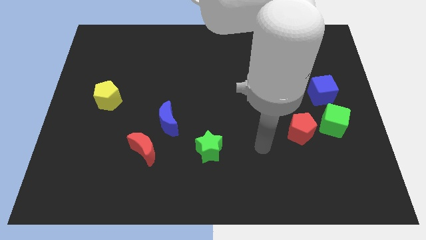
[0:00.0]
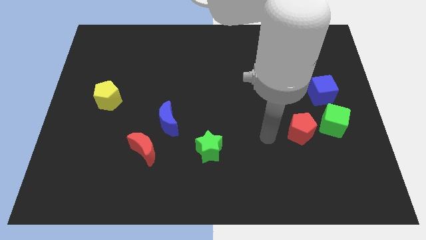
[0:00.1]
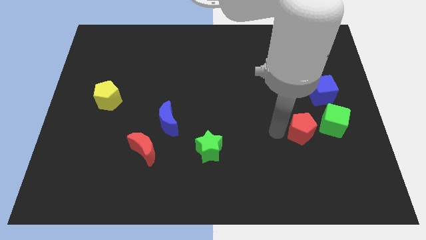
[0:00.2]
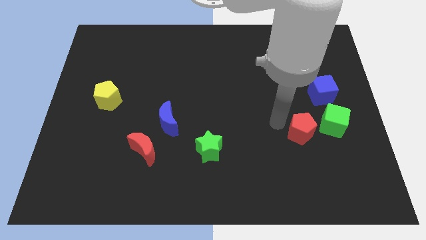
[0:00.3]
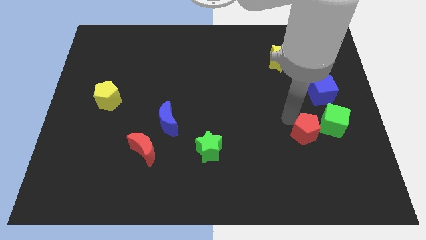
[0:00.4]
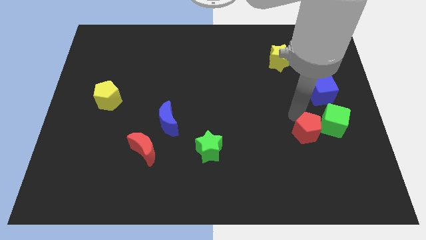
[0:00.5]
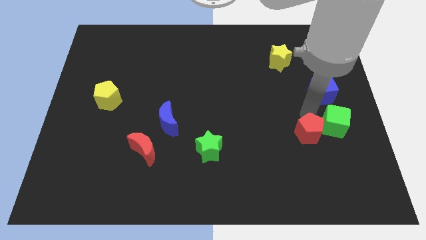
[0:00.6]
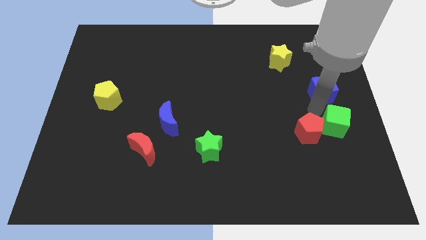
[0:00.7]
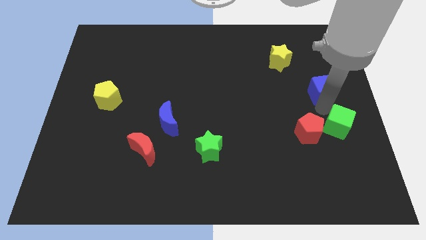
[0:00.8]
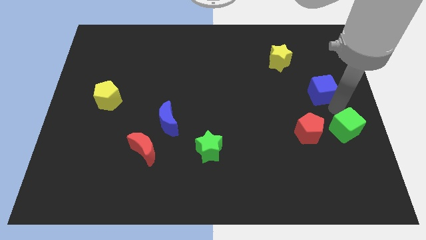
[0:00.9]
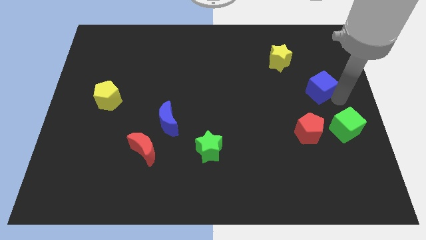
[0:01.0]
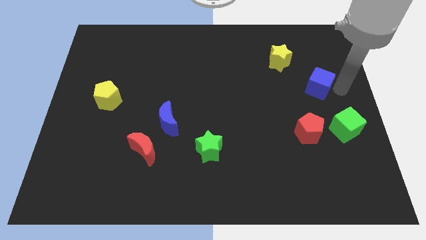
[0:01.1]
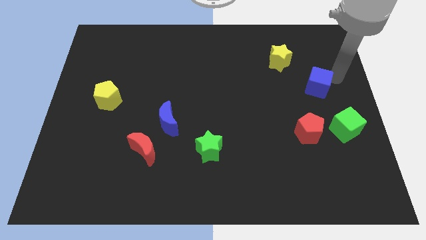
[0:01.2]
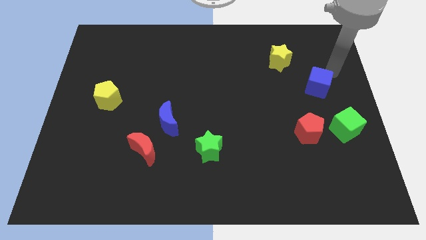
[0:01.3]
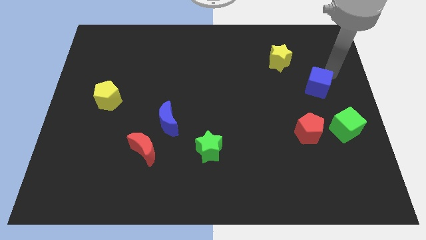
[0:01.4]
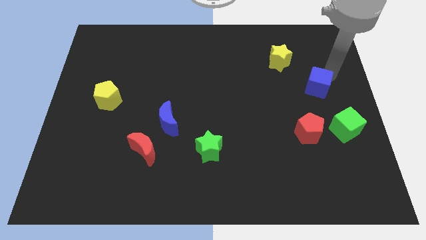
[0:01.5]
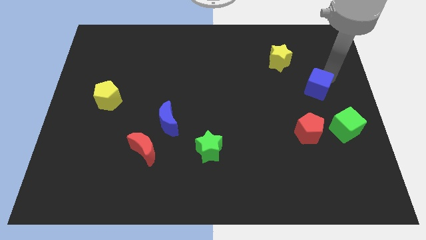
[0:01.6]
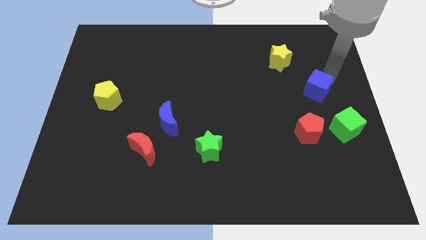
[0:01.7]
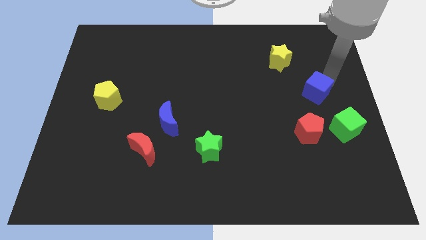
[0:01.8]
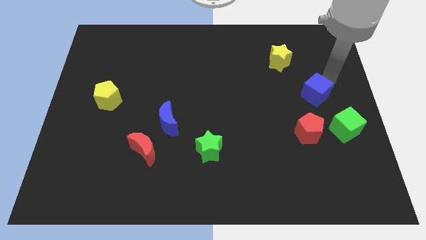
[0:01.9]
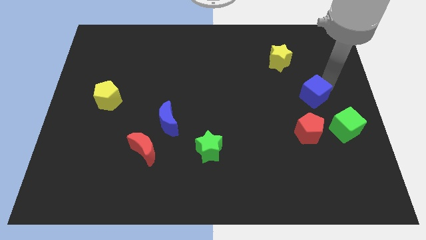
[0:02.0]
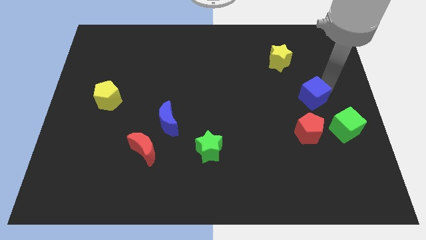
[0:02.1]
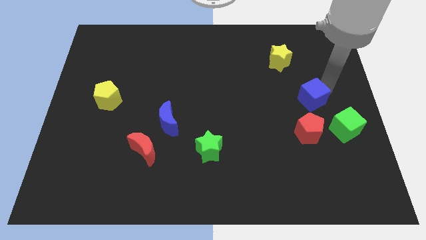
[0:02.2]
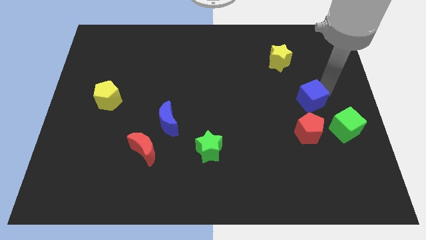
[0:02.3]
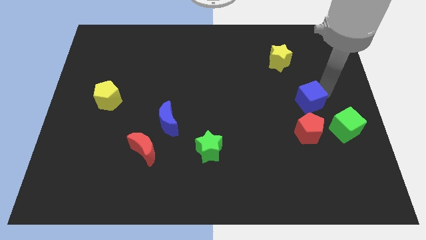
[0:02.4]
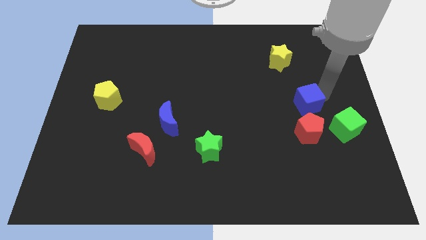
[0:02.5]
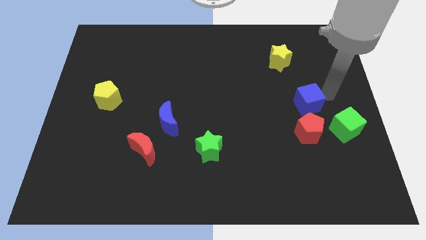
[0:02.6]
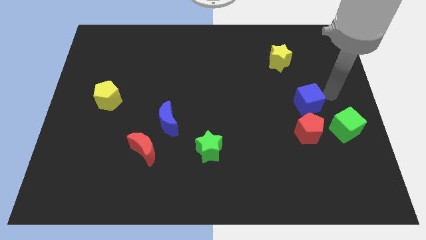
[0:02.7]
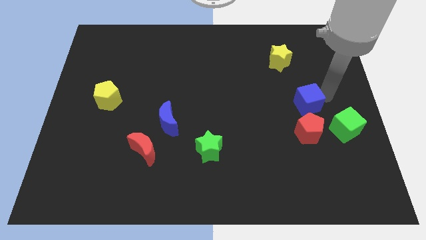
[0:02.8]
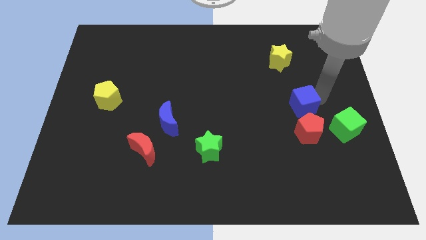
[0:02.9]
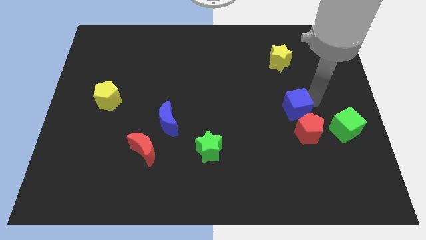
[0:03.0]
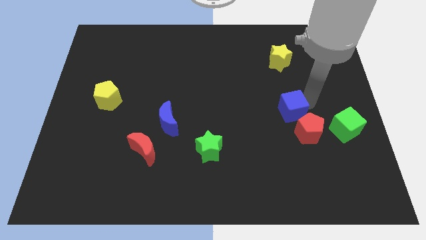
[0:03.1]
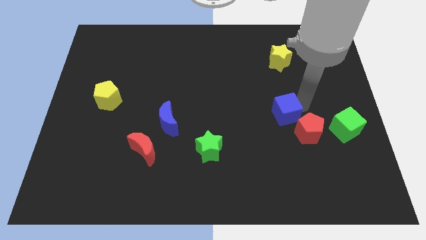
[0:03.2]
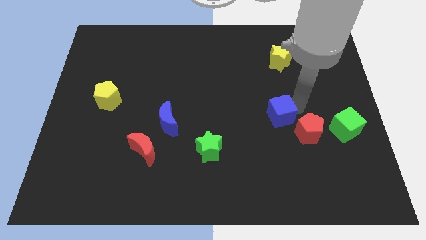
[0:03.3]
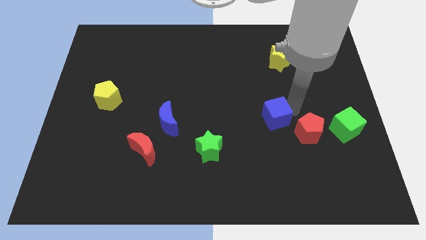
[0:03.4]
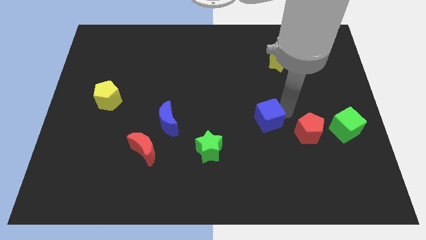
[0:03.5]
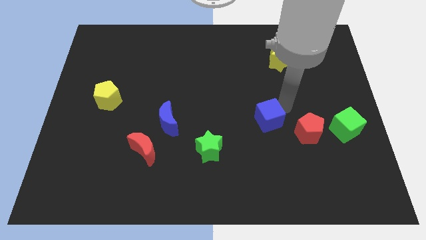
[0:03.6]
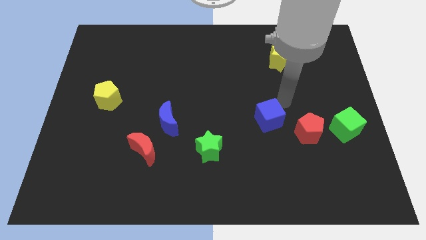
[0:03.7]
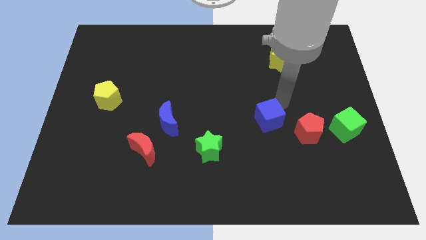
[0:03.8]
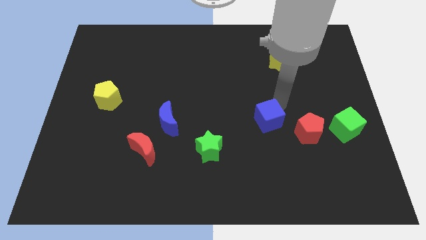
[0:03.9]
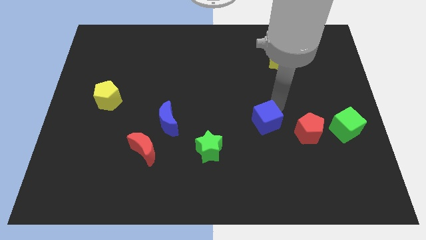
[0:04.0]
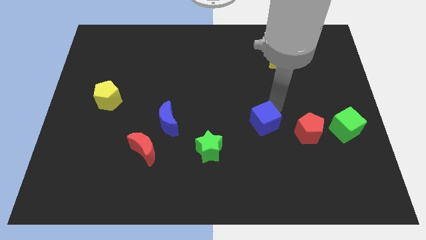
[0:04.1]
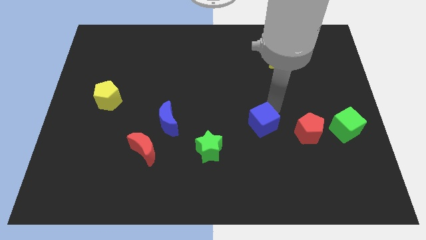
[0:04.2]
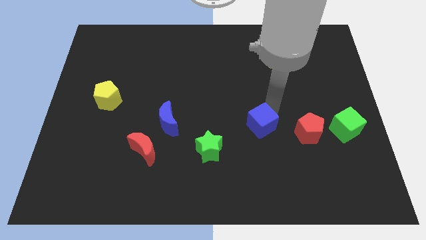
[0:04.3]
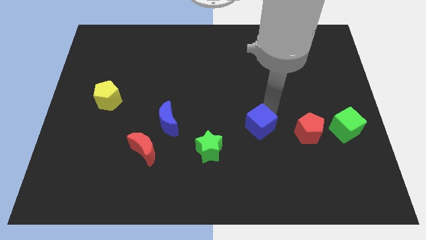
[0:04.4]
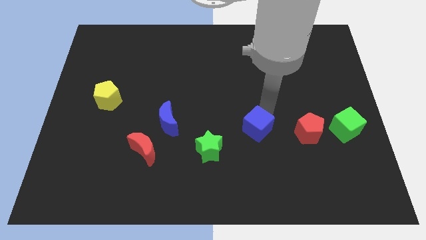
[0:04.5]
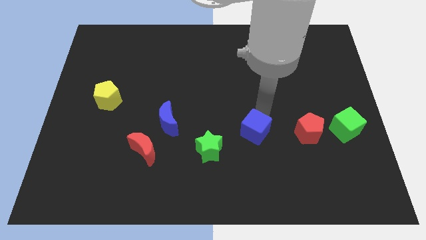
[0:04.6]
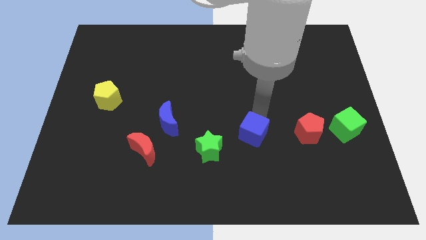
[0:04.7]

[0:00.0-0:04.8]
move the blue cube down and to the left

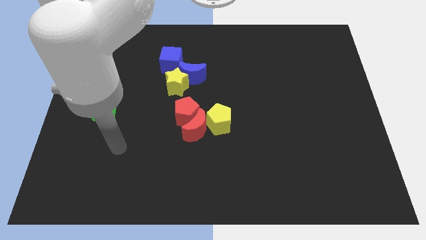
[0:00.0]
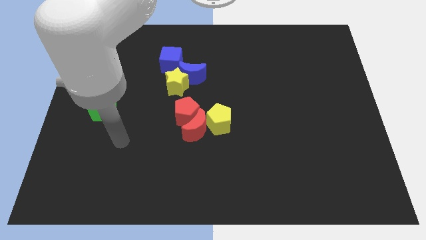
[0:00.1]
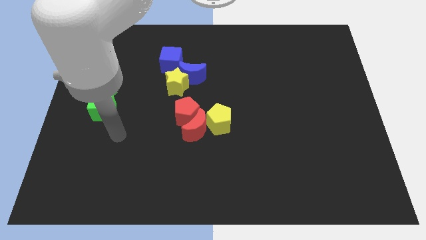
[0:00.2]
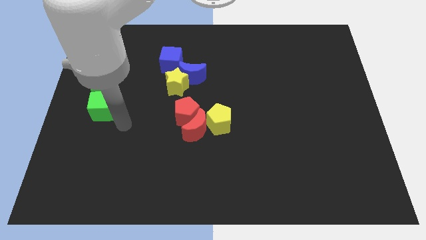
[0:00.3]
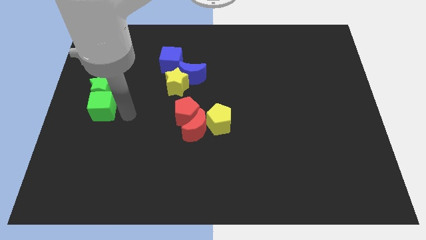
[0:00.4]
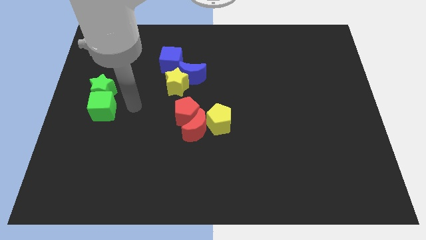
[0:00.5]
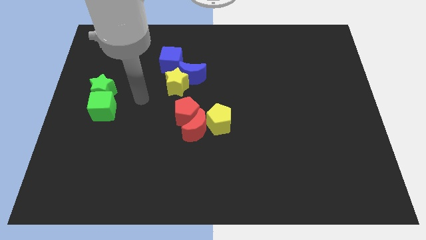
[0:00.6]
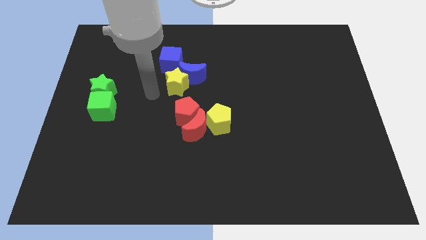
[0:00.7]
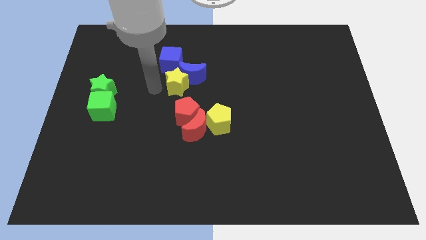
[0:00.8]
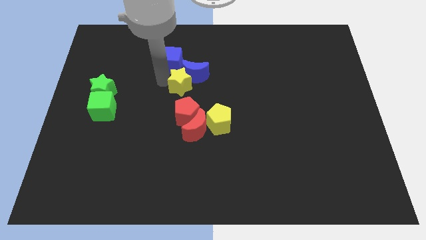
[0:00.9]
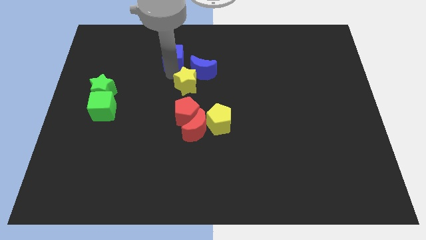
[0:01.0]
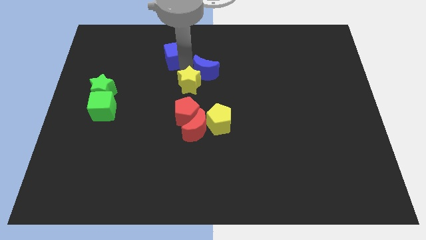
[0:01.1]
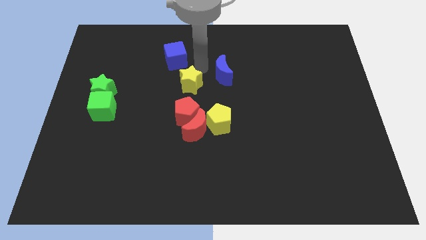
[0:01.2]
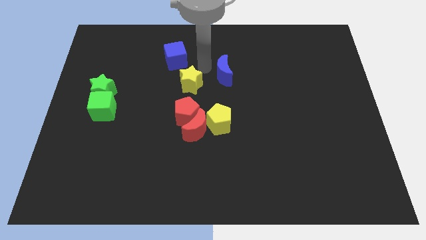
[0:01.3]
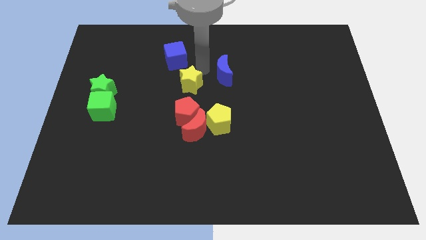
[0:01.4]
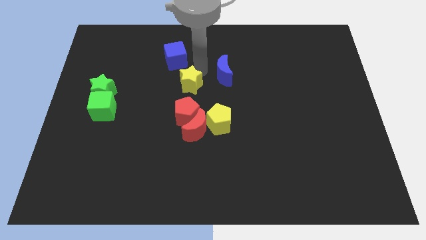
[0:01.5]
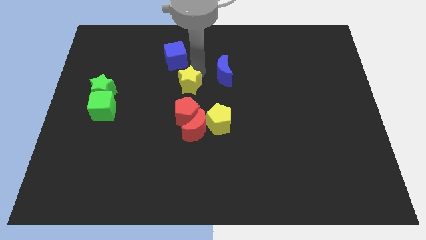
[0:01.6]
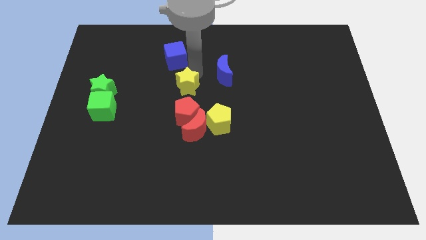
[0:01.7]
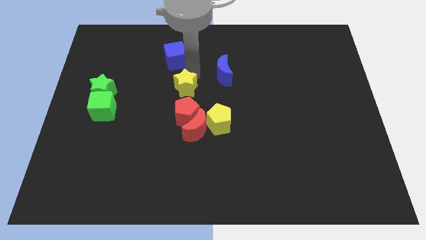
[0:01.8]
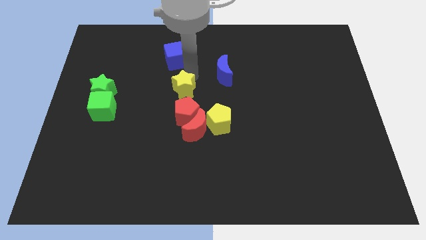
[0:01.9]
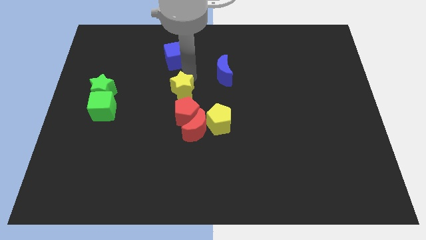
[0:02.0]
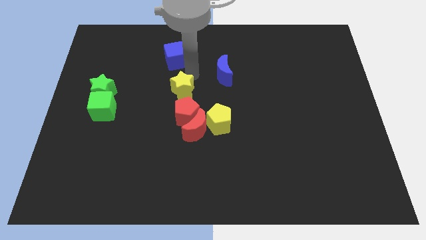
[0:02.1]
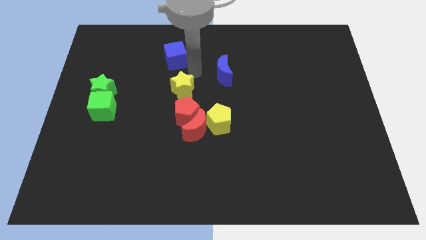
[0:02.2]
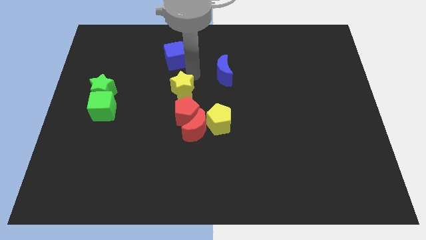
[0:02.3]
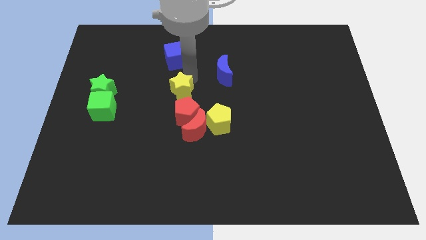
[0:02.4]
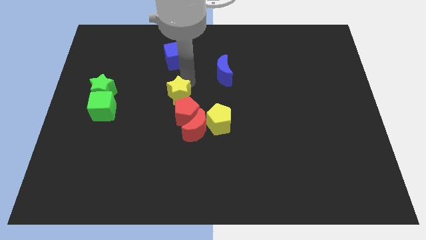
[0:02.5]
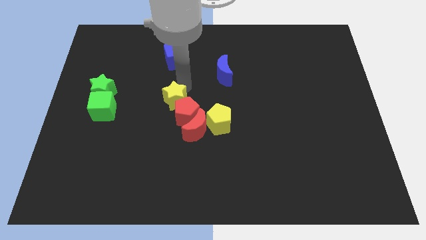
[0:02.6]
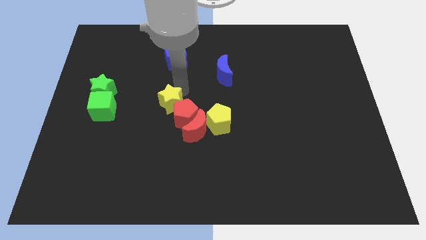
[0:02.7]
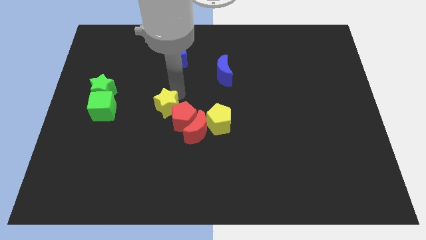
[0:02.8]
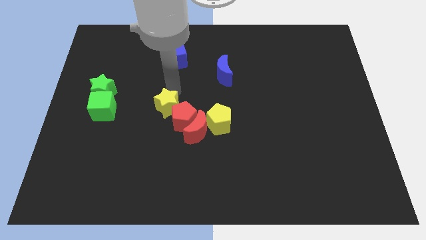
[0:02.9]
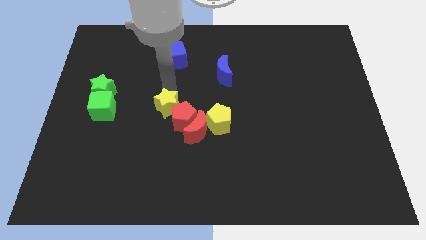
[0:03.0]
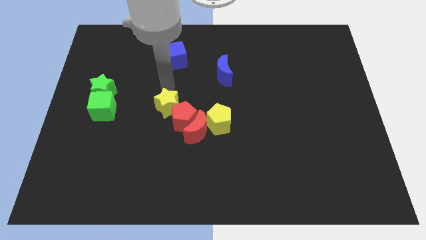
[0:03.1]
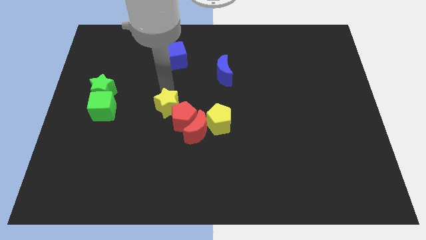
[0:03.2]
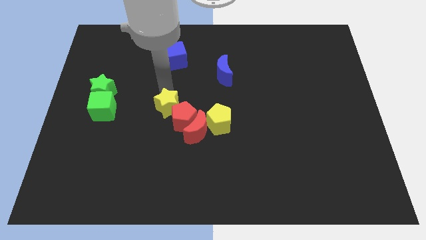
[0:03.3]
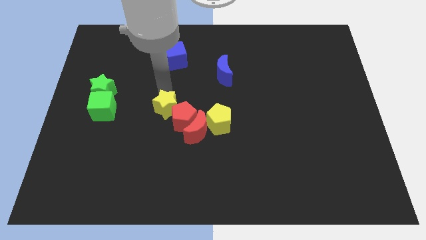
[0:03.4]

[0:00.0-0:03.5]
move the yellow star down slightly
